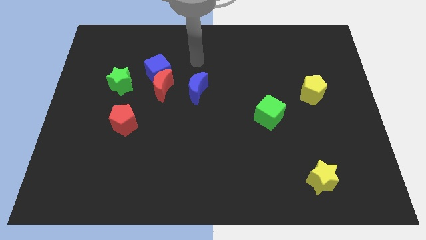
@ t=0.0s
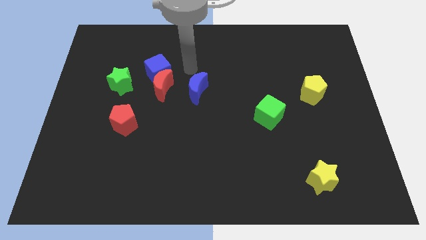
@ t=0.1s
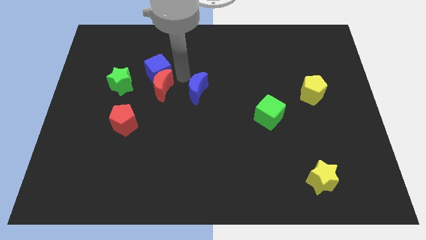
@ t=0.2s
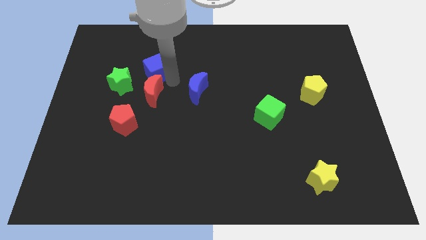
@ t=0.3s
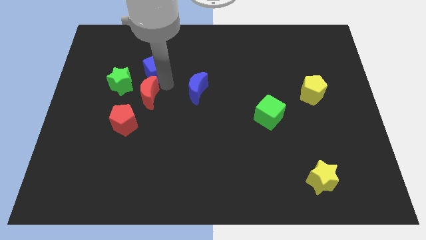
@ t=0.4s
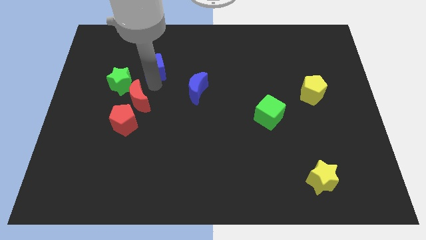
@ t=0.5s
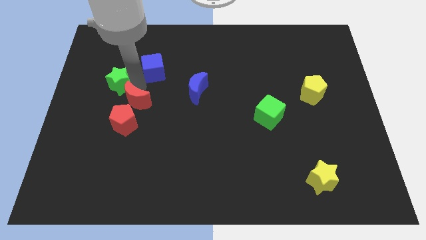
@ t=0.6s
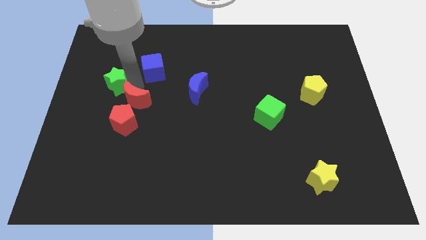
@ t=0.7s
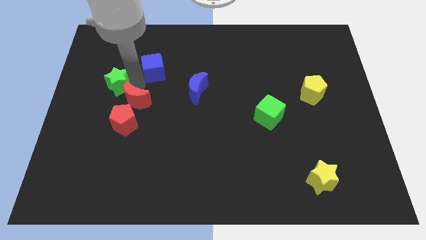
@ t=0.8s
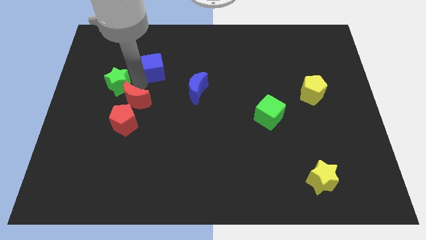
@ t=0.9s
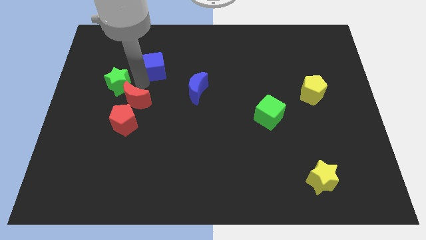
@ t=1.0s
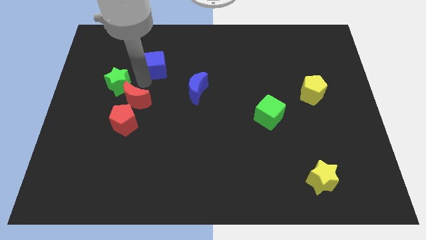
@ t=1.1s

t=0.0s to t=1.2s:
move the blue cube away from the red moon and green star

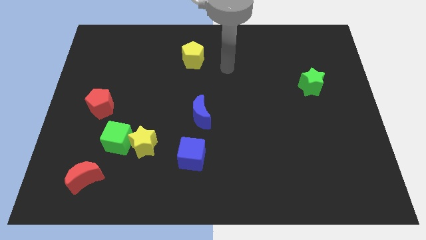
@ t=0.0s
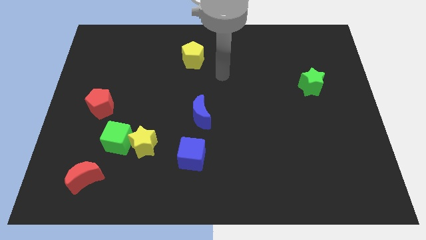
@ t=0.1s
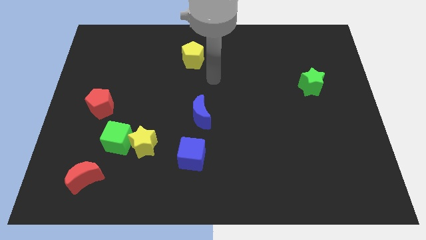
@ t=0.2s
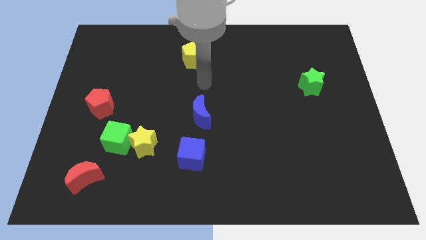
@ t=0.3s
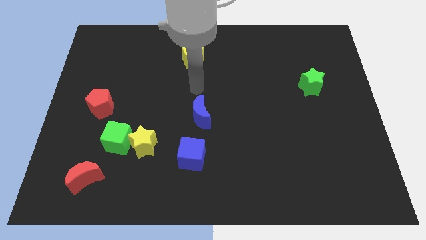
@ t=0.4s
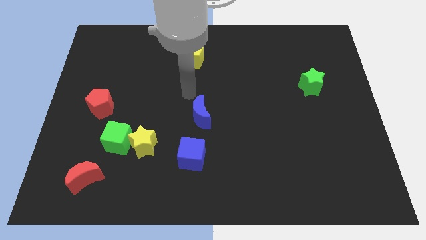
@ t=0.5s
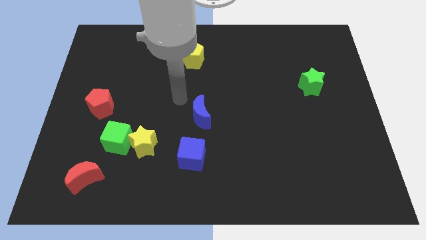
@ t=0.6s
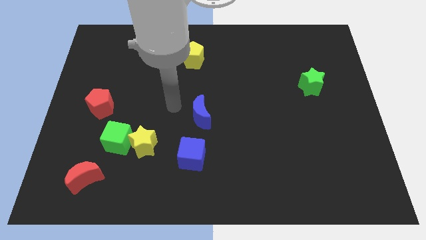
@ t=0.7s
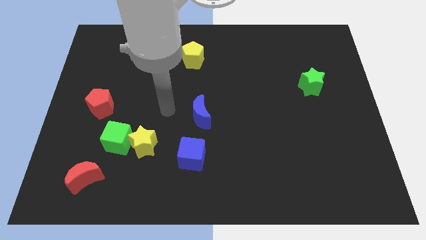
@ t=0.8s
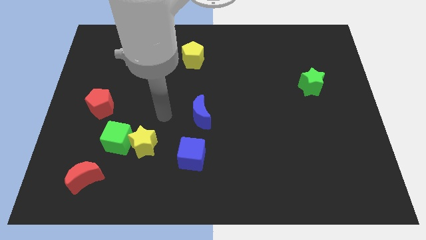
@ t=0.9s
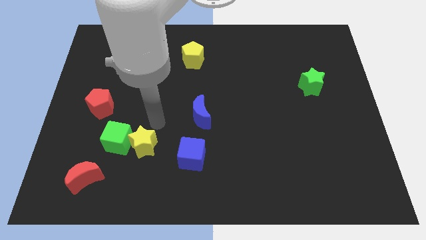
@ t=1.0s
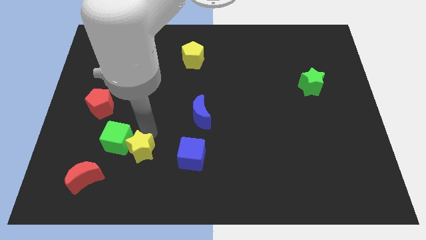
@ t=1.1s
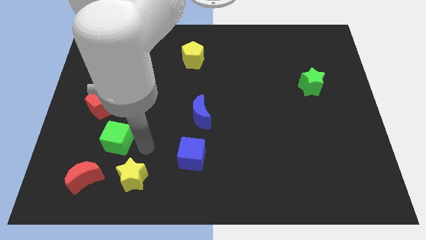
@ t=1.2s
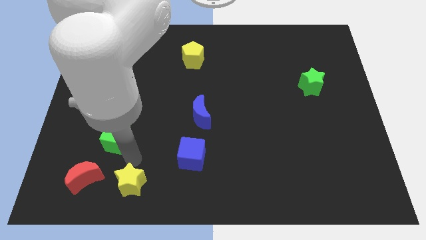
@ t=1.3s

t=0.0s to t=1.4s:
pull the green cube apart from the yellow star

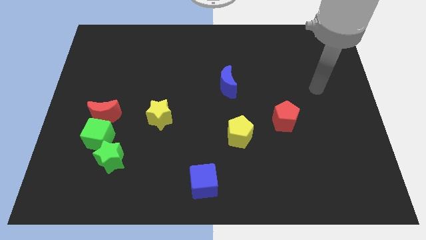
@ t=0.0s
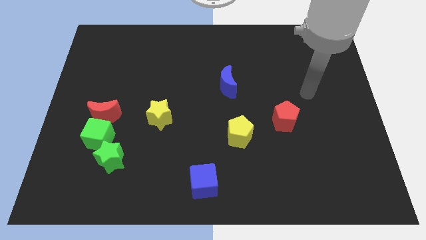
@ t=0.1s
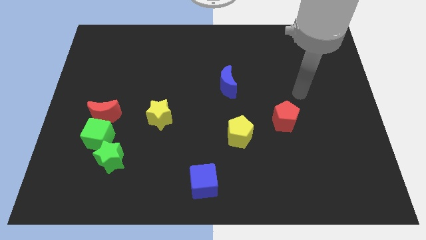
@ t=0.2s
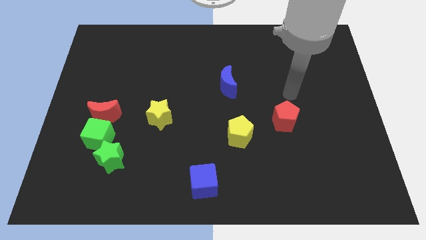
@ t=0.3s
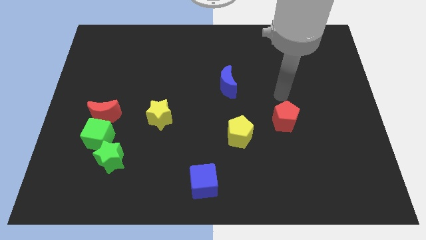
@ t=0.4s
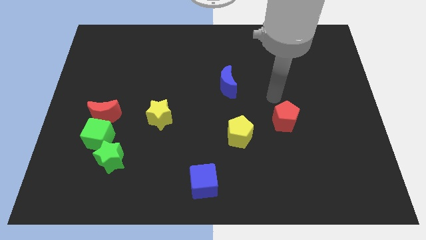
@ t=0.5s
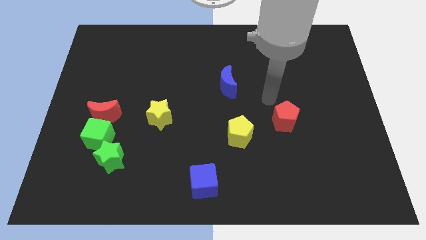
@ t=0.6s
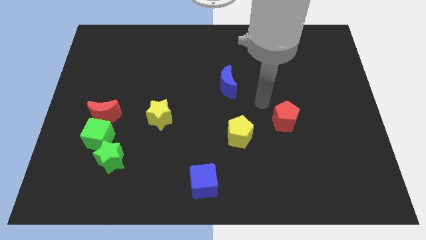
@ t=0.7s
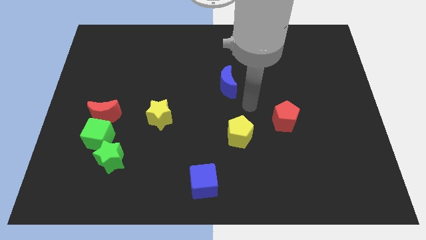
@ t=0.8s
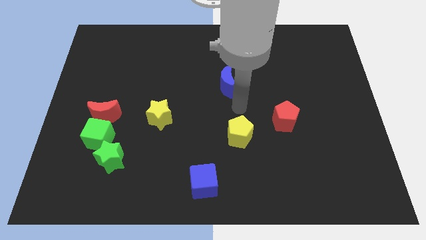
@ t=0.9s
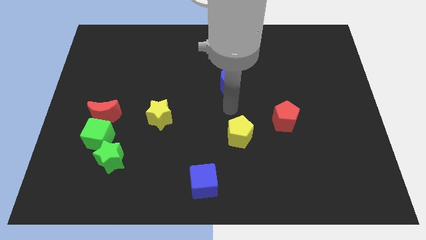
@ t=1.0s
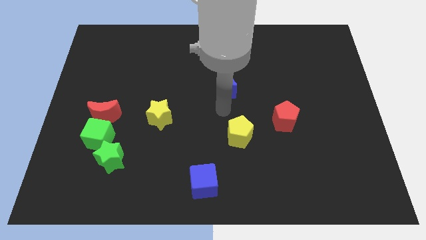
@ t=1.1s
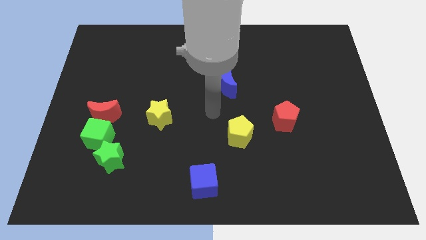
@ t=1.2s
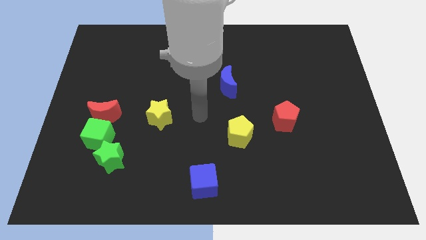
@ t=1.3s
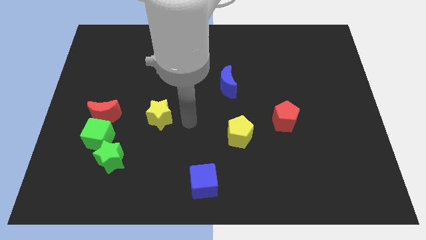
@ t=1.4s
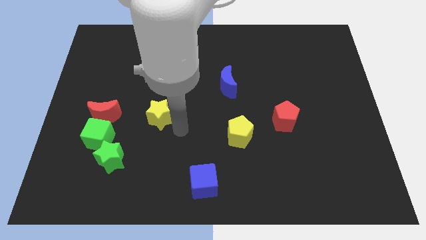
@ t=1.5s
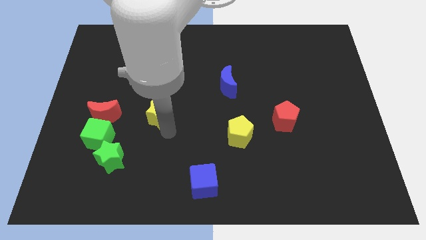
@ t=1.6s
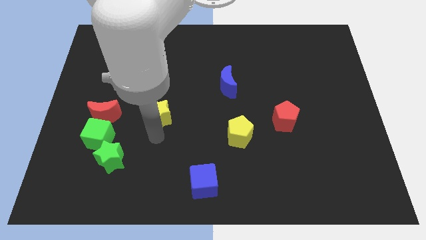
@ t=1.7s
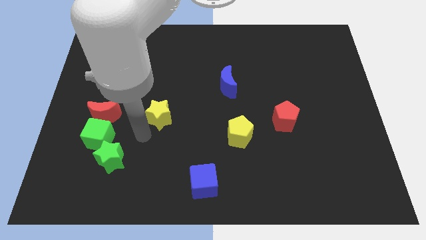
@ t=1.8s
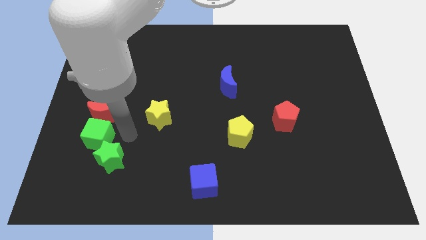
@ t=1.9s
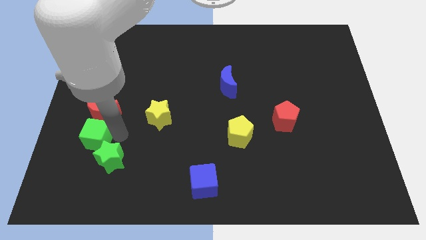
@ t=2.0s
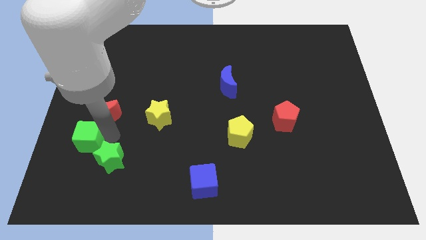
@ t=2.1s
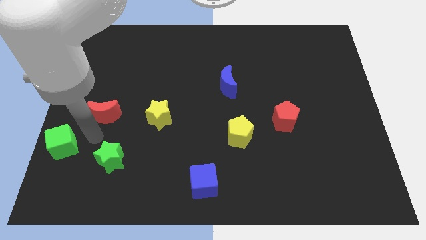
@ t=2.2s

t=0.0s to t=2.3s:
pull the red moon apart from the green cube

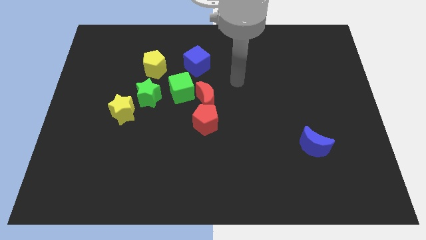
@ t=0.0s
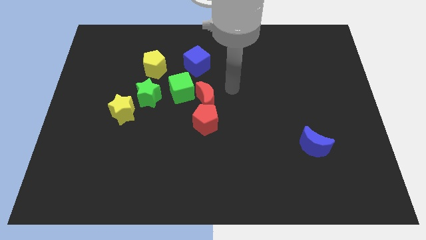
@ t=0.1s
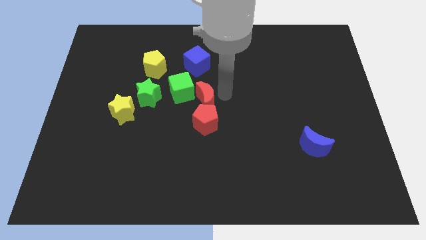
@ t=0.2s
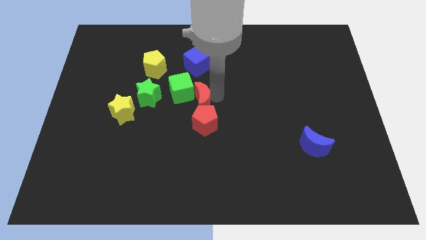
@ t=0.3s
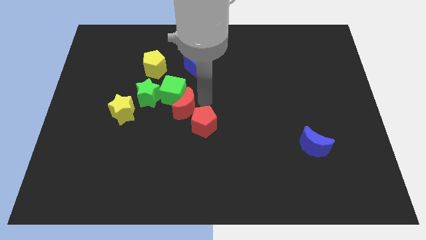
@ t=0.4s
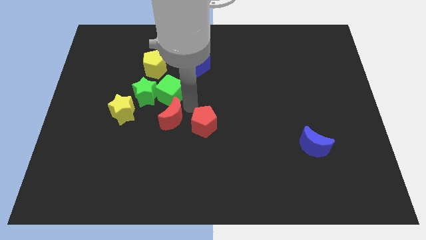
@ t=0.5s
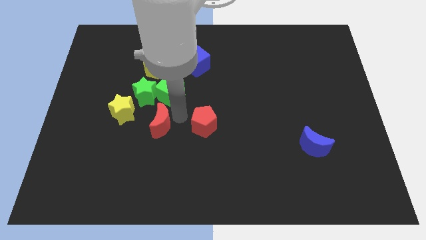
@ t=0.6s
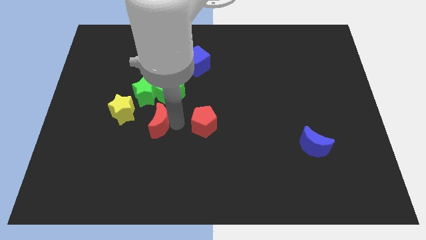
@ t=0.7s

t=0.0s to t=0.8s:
move the red pentagon away from the red moon

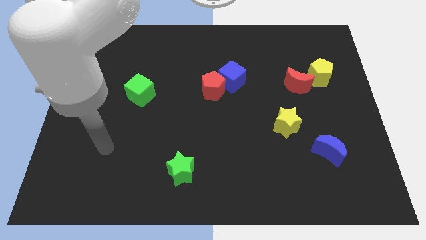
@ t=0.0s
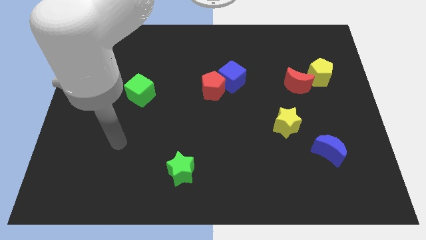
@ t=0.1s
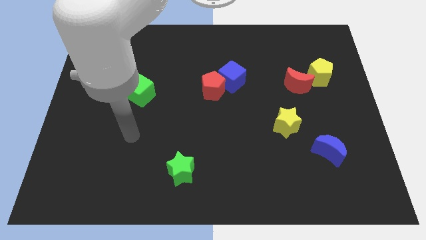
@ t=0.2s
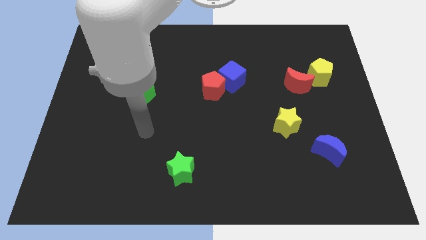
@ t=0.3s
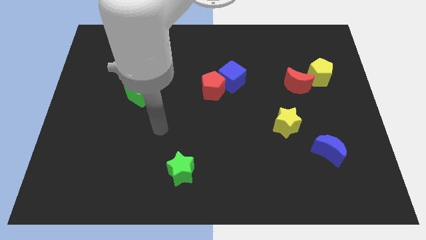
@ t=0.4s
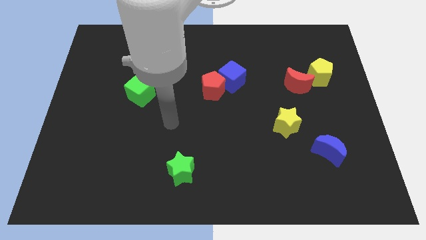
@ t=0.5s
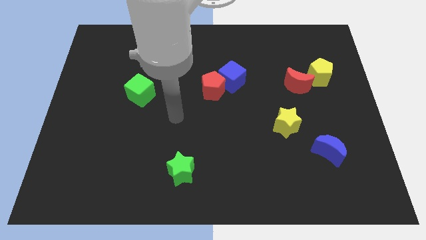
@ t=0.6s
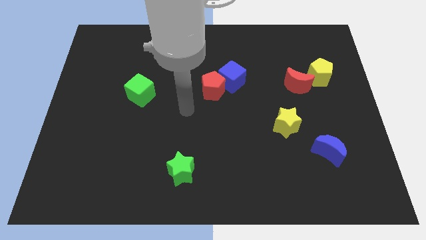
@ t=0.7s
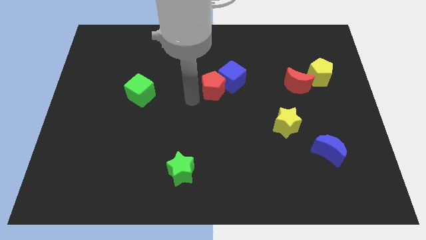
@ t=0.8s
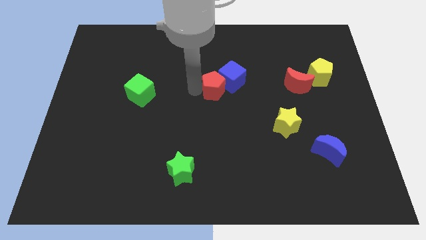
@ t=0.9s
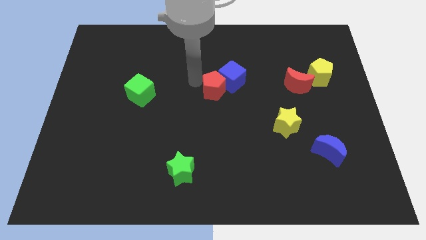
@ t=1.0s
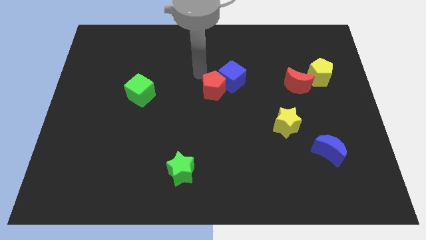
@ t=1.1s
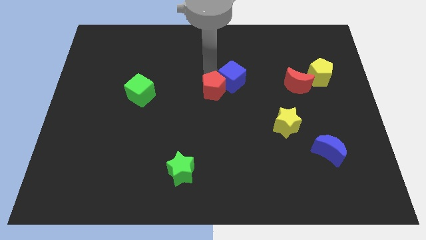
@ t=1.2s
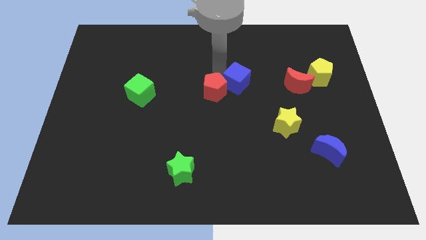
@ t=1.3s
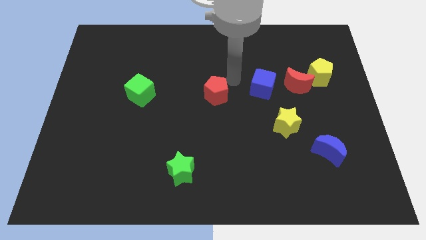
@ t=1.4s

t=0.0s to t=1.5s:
pull the red pentagon apart from the blue cube

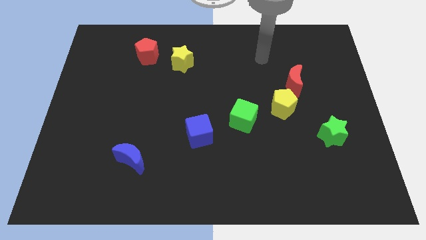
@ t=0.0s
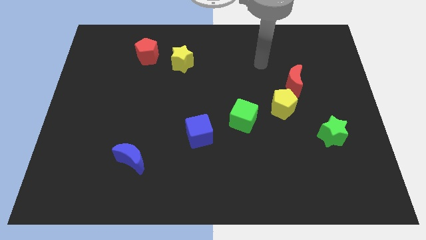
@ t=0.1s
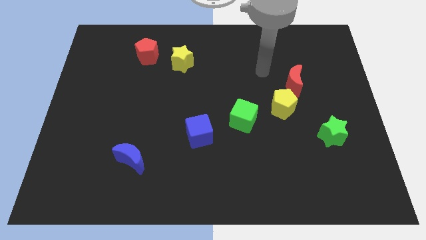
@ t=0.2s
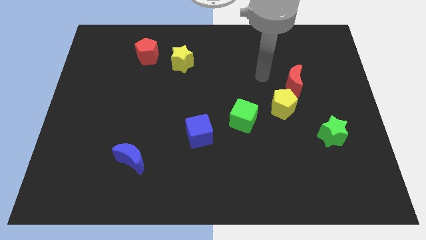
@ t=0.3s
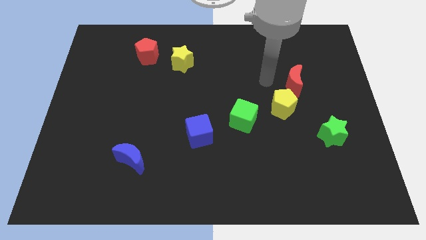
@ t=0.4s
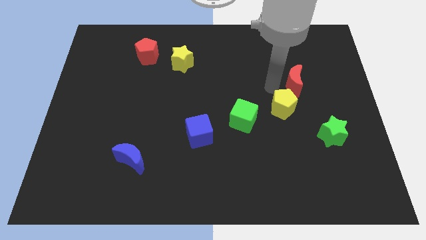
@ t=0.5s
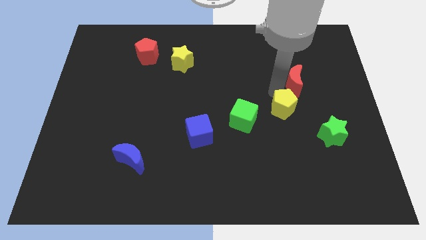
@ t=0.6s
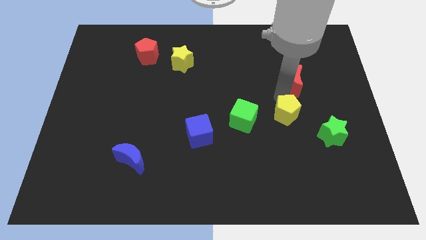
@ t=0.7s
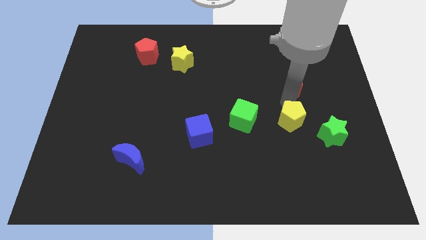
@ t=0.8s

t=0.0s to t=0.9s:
pull the red moon apart from the yellow pentagon

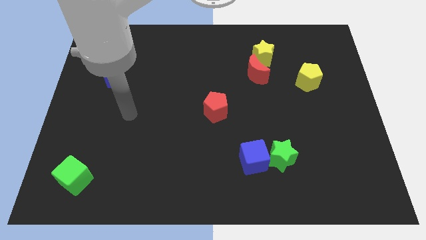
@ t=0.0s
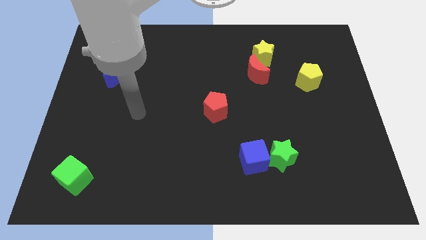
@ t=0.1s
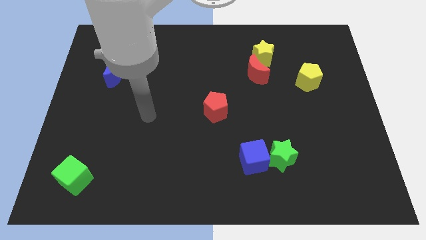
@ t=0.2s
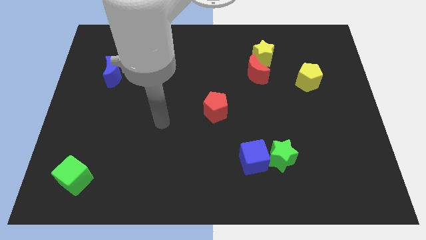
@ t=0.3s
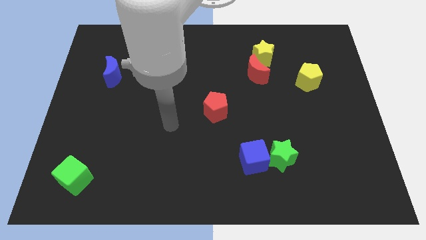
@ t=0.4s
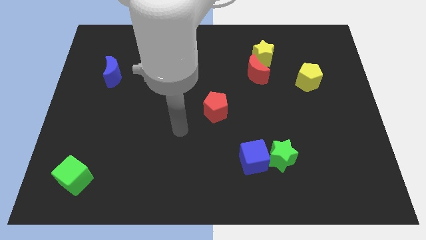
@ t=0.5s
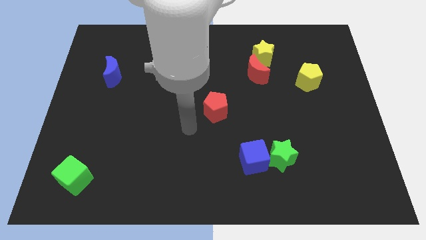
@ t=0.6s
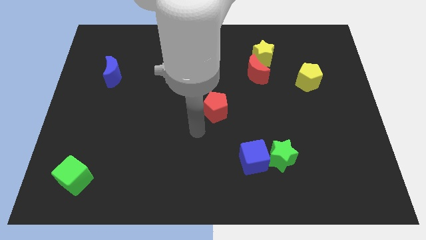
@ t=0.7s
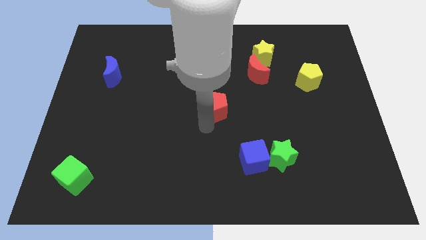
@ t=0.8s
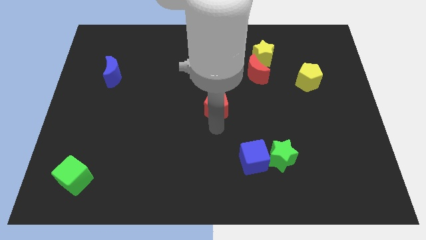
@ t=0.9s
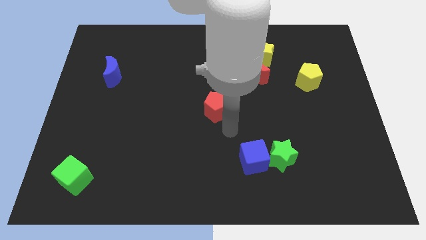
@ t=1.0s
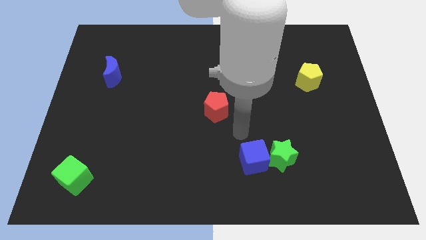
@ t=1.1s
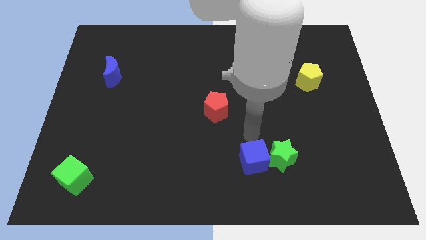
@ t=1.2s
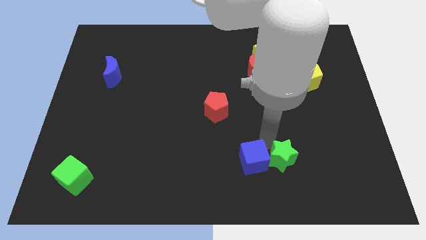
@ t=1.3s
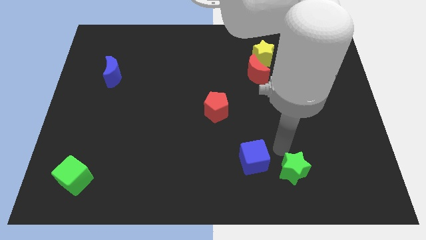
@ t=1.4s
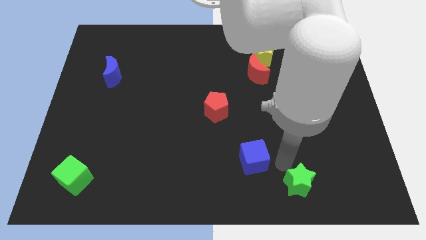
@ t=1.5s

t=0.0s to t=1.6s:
separate the blue cube from the green star
